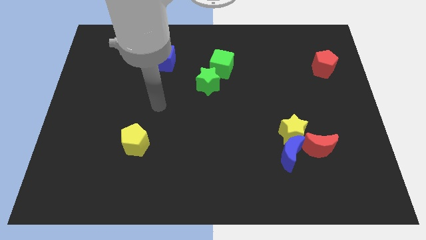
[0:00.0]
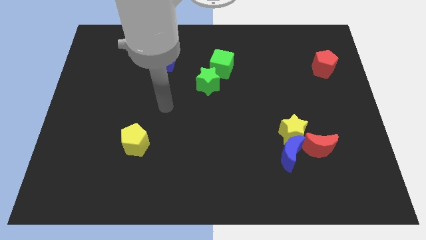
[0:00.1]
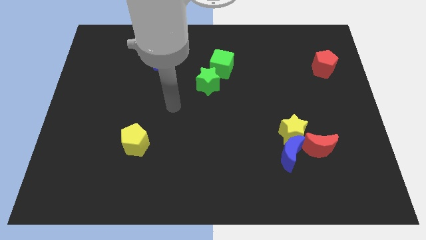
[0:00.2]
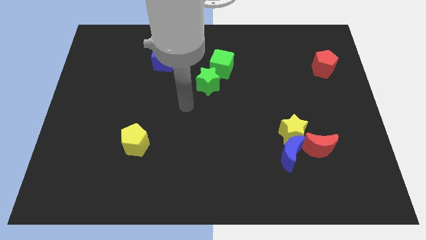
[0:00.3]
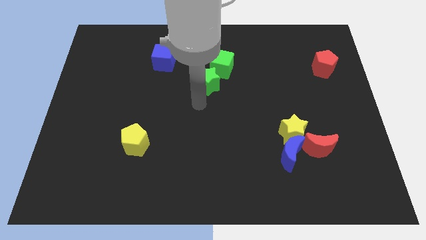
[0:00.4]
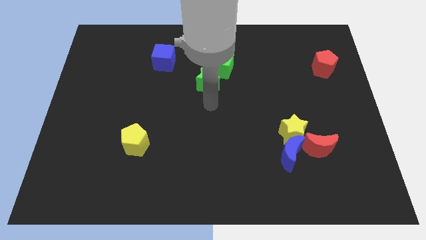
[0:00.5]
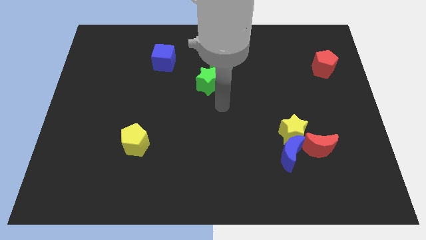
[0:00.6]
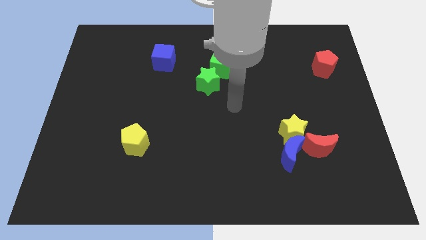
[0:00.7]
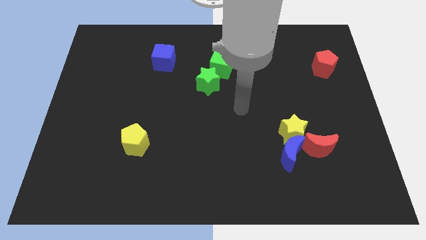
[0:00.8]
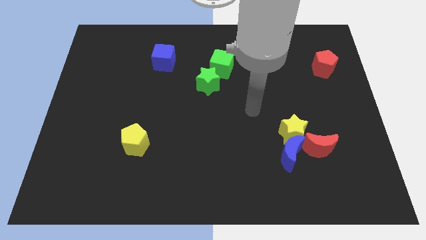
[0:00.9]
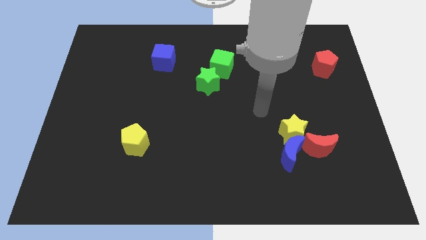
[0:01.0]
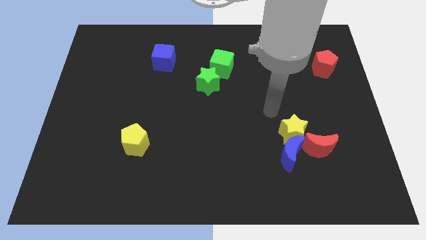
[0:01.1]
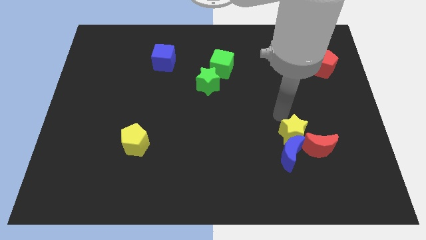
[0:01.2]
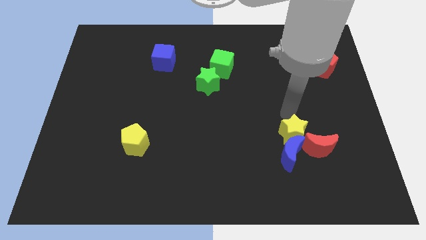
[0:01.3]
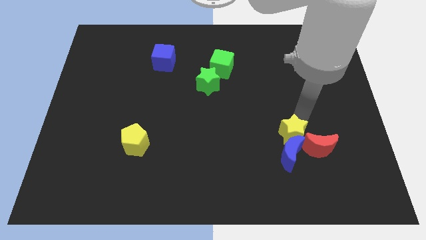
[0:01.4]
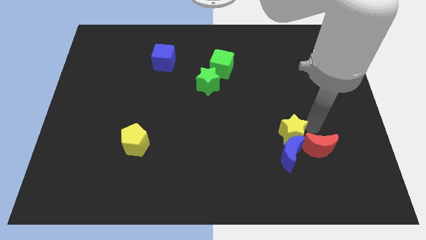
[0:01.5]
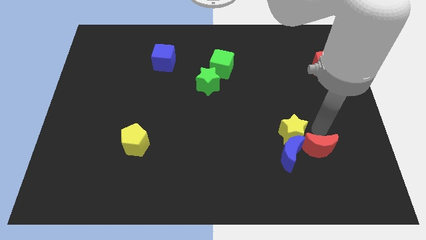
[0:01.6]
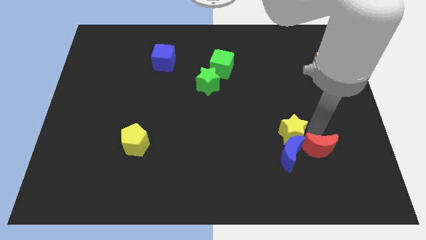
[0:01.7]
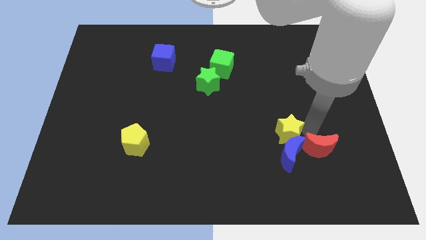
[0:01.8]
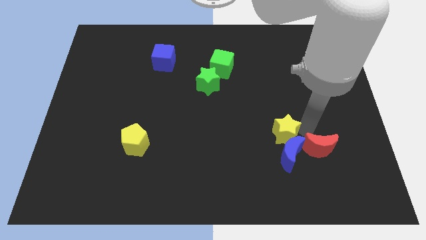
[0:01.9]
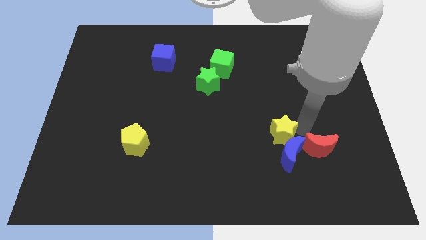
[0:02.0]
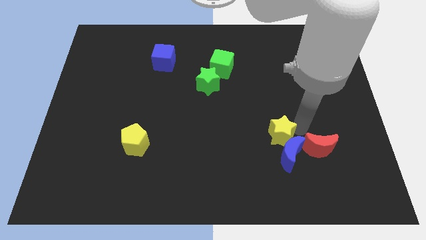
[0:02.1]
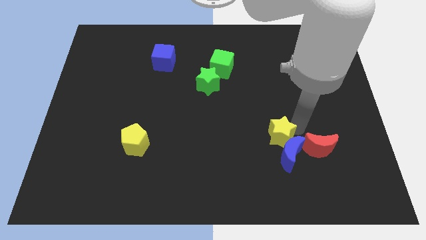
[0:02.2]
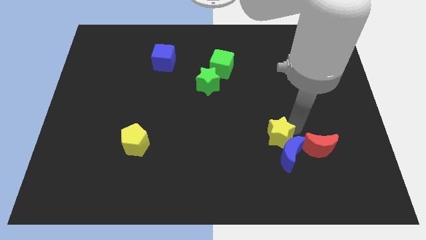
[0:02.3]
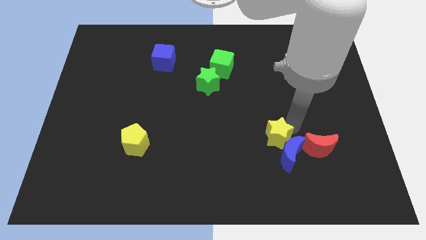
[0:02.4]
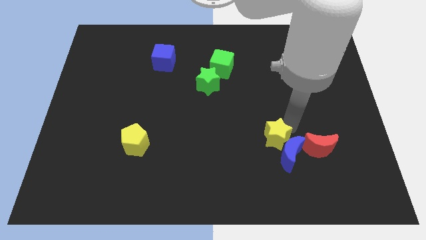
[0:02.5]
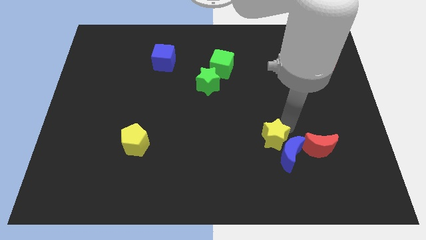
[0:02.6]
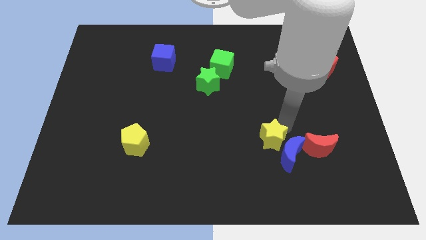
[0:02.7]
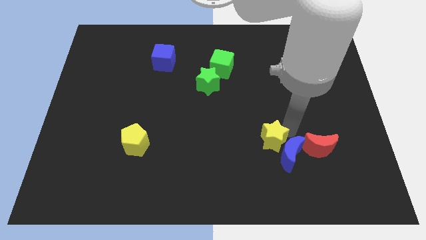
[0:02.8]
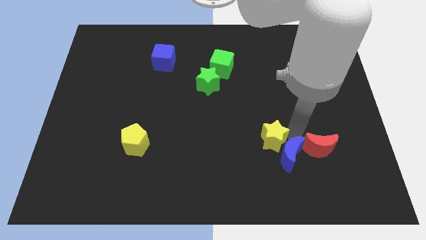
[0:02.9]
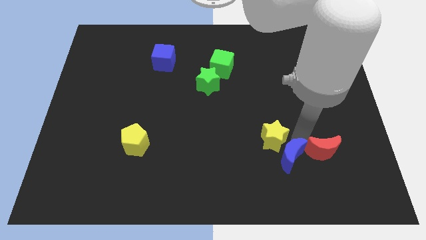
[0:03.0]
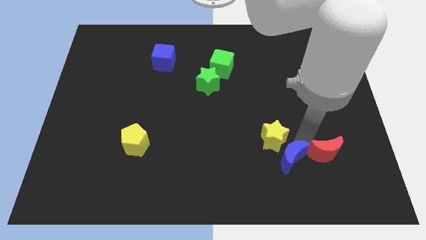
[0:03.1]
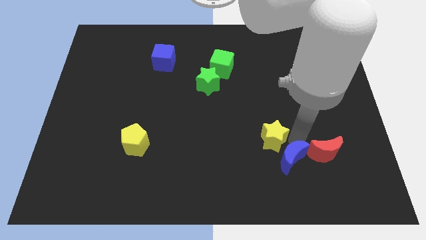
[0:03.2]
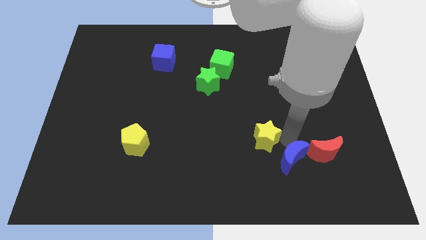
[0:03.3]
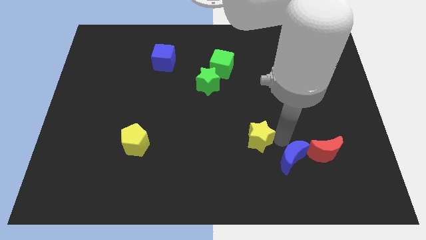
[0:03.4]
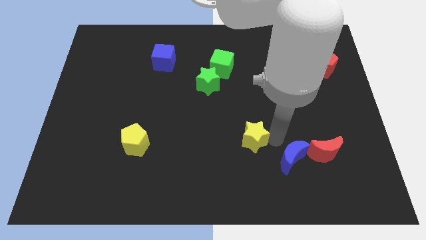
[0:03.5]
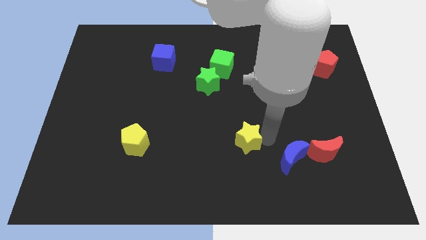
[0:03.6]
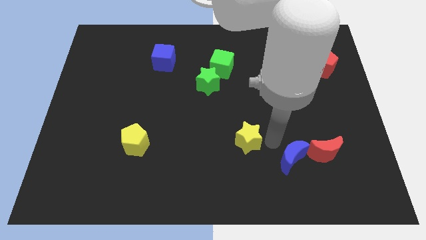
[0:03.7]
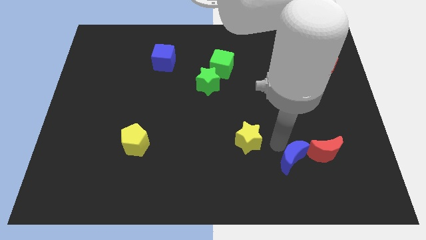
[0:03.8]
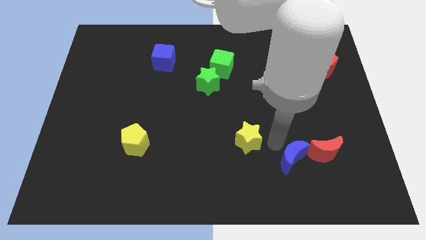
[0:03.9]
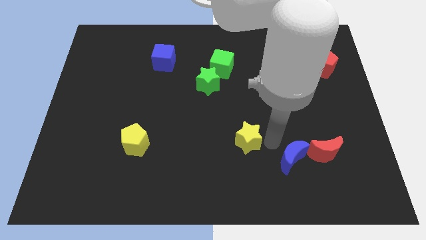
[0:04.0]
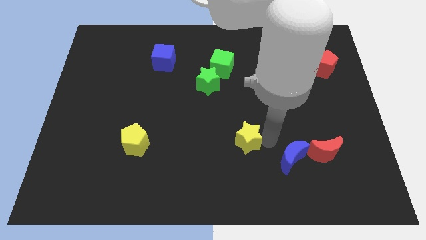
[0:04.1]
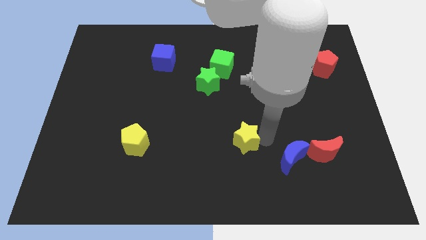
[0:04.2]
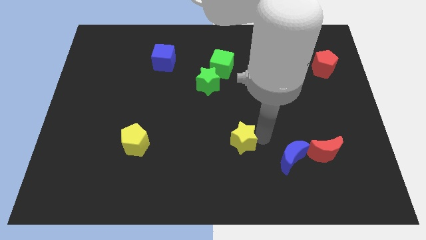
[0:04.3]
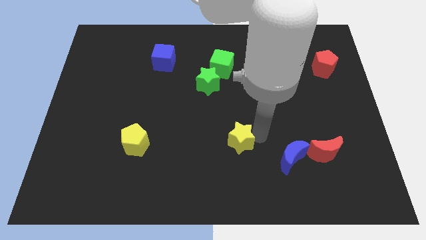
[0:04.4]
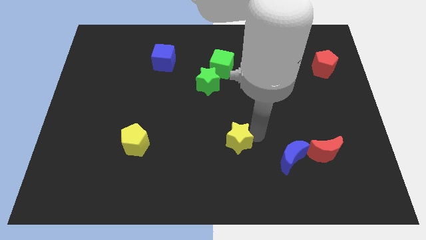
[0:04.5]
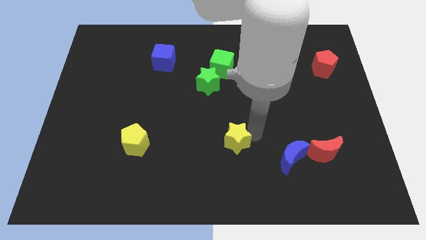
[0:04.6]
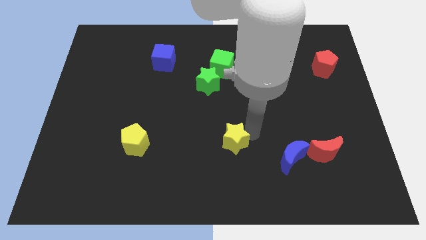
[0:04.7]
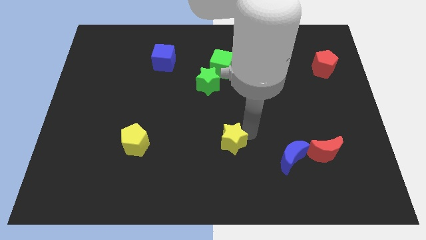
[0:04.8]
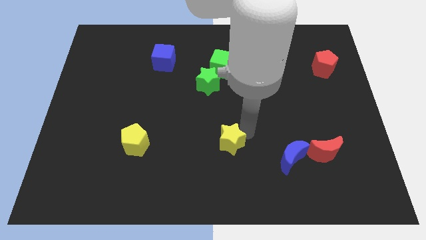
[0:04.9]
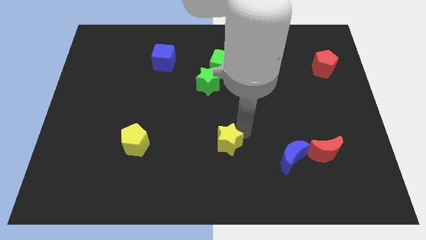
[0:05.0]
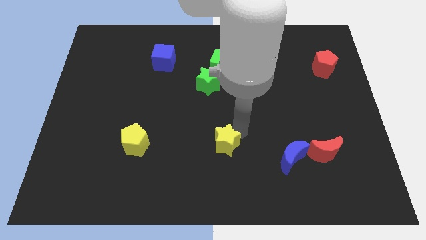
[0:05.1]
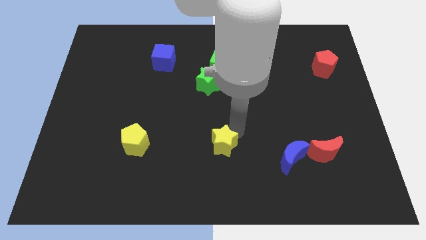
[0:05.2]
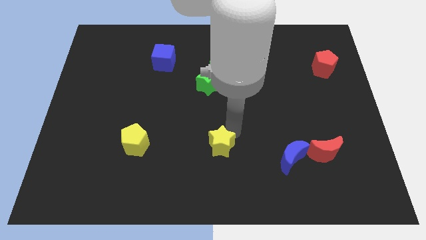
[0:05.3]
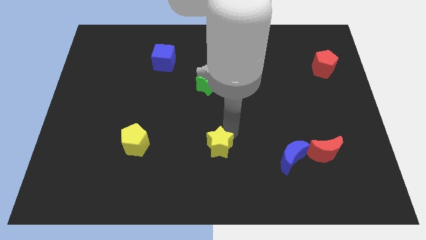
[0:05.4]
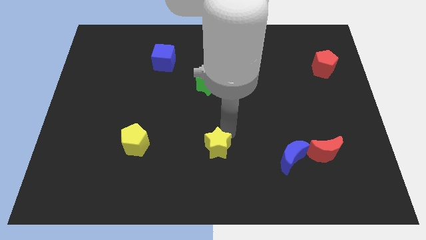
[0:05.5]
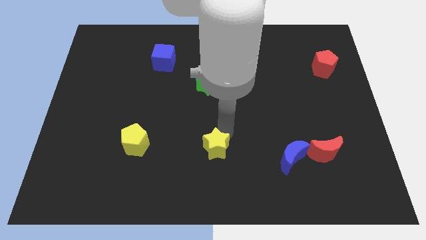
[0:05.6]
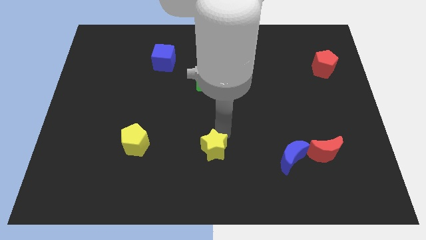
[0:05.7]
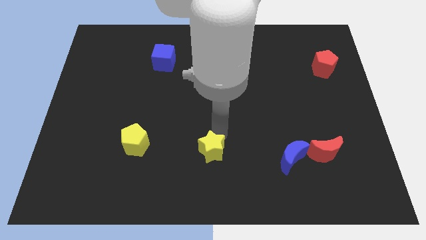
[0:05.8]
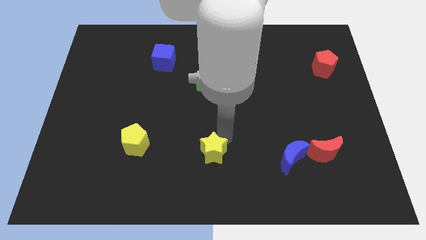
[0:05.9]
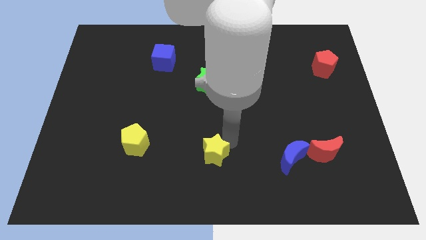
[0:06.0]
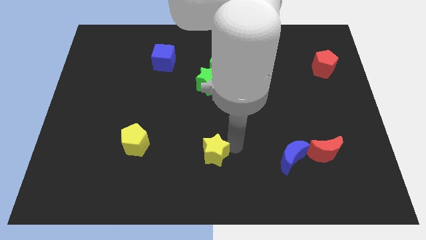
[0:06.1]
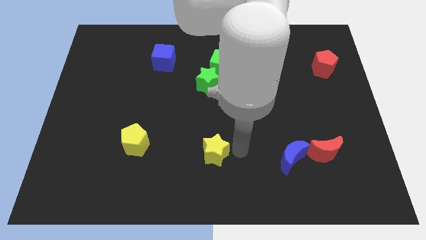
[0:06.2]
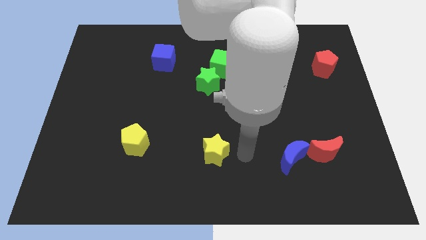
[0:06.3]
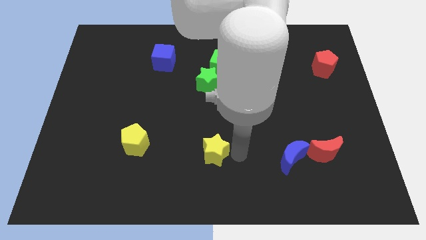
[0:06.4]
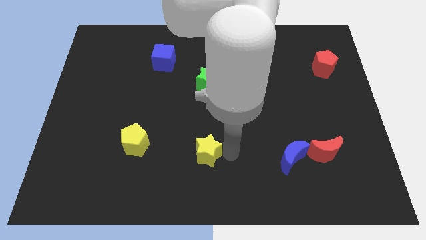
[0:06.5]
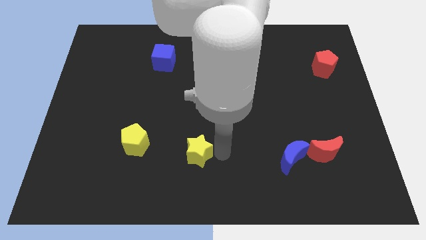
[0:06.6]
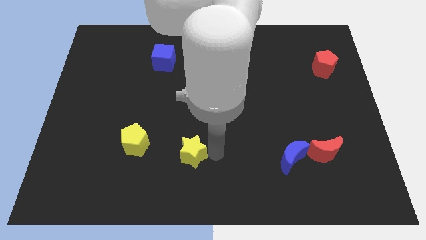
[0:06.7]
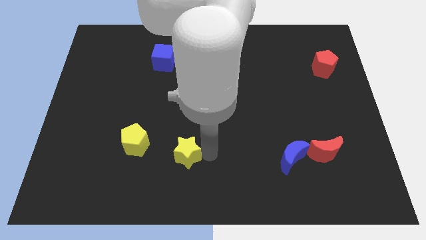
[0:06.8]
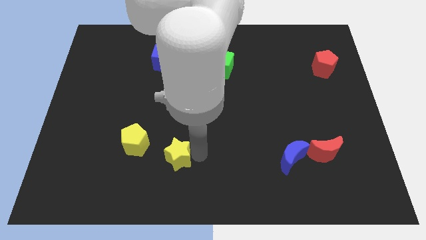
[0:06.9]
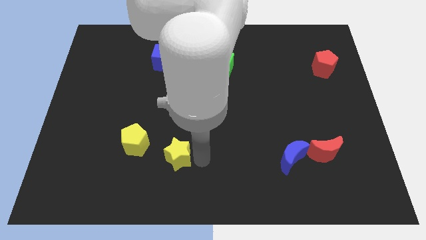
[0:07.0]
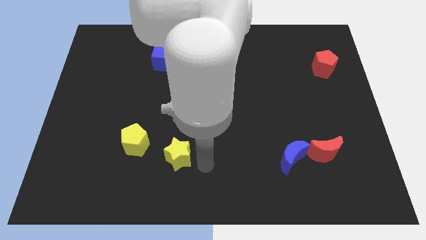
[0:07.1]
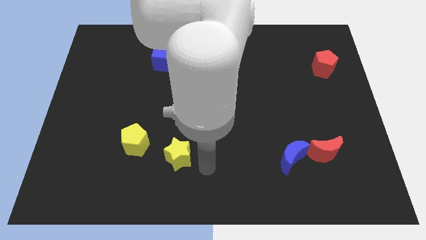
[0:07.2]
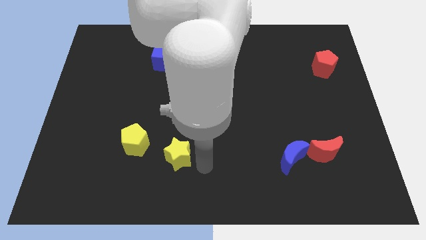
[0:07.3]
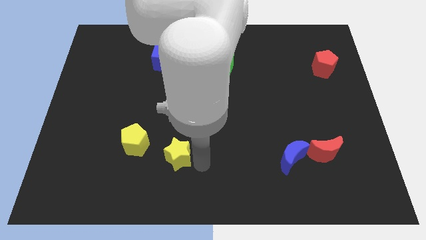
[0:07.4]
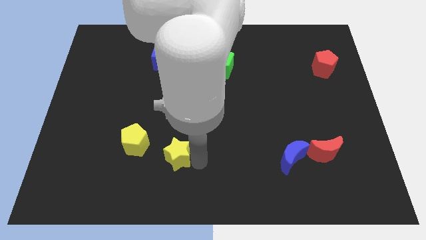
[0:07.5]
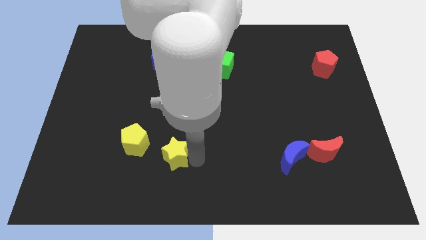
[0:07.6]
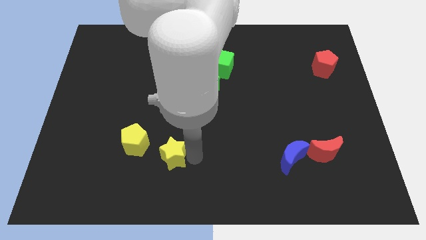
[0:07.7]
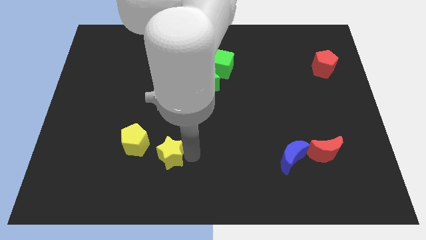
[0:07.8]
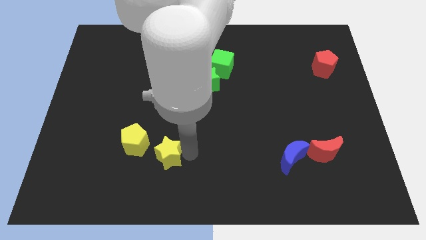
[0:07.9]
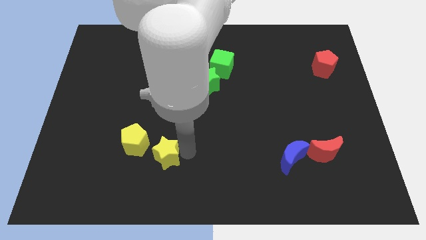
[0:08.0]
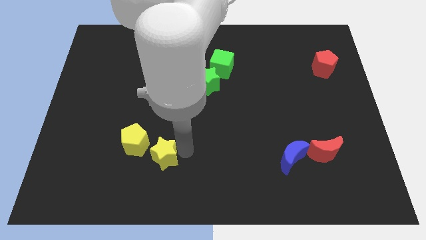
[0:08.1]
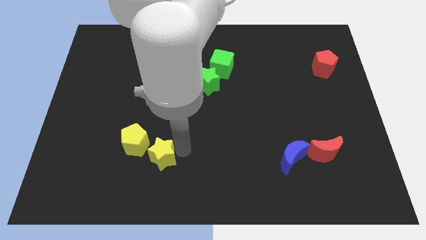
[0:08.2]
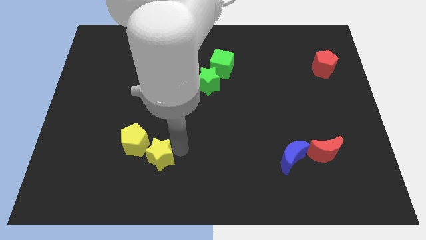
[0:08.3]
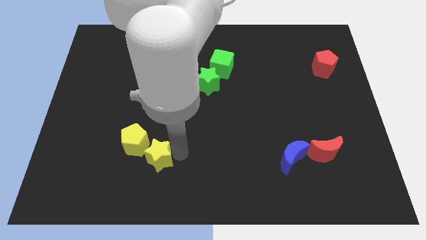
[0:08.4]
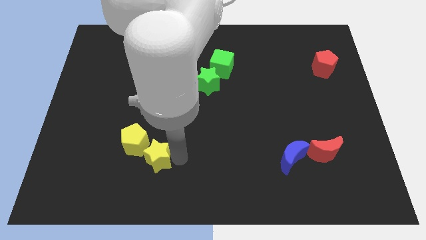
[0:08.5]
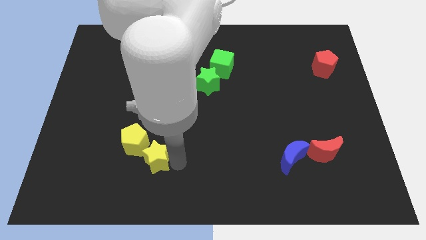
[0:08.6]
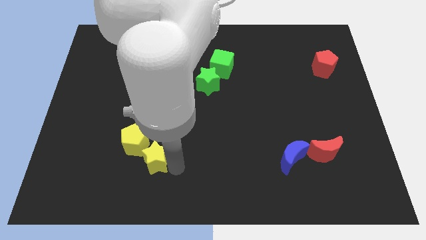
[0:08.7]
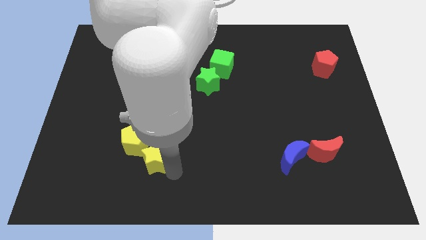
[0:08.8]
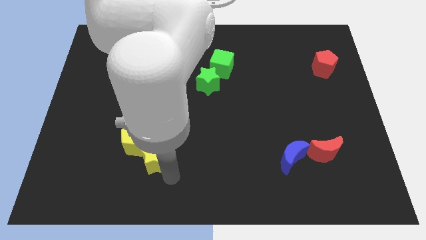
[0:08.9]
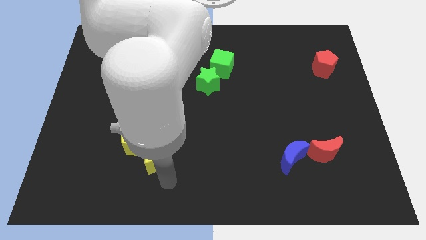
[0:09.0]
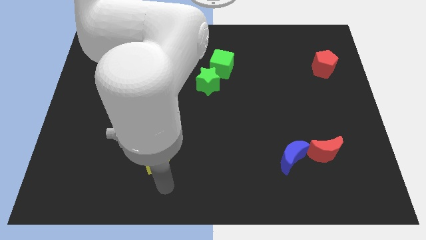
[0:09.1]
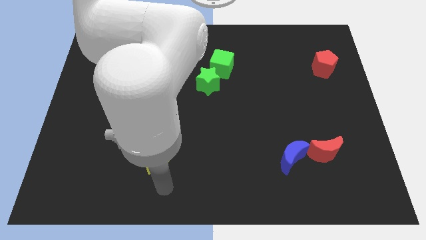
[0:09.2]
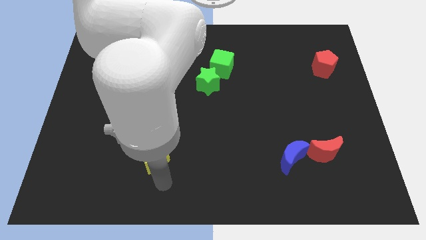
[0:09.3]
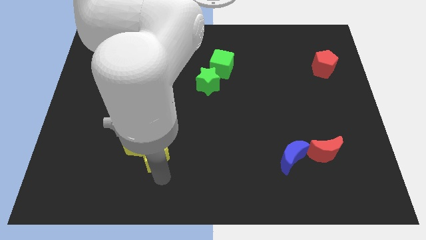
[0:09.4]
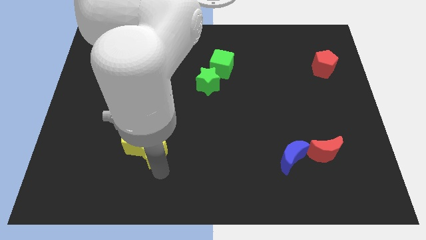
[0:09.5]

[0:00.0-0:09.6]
move the yellow star next to the yellow pentagon
